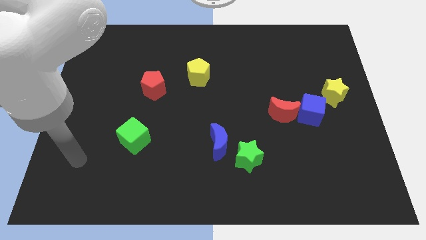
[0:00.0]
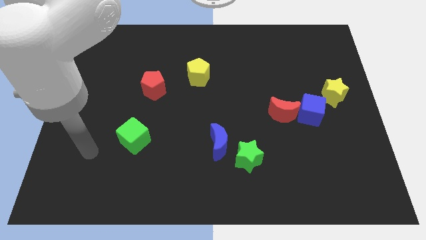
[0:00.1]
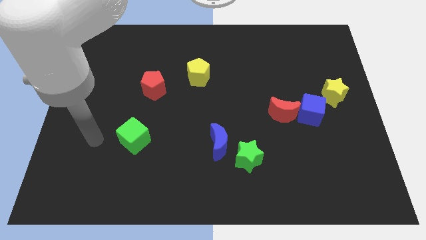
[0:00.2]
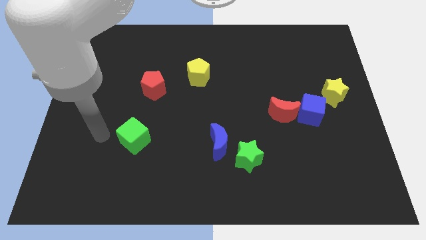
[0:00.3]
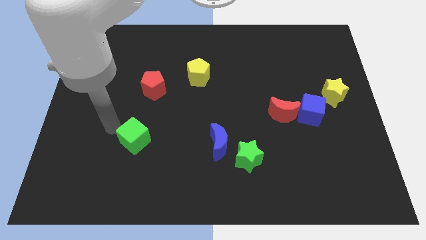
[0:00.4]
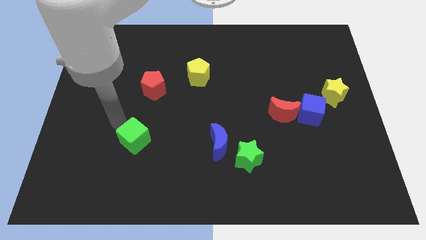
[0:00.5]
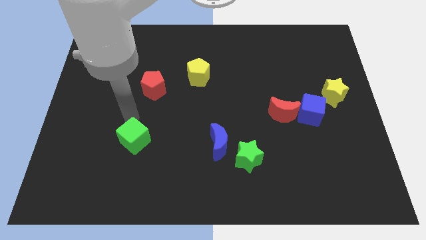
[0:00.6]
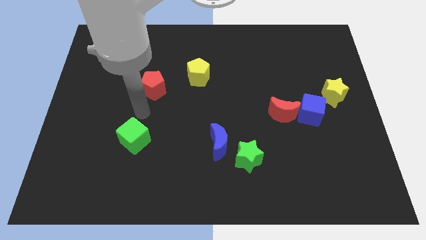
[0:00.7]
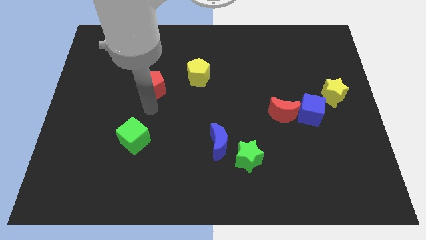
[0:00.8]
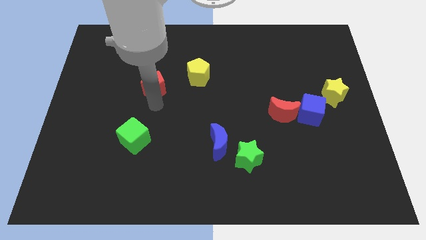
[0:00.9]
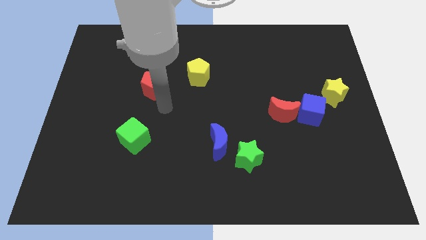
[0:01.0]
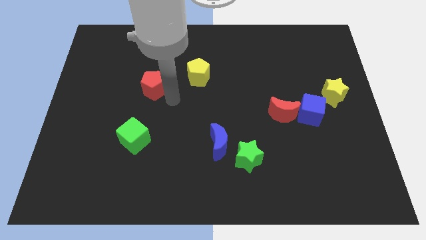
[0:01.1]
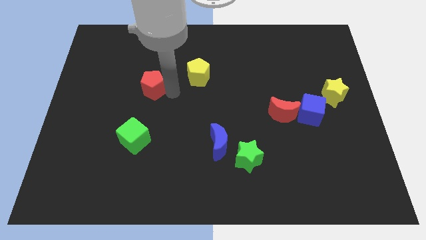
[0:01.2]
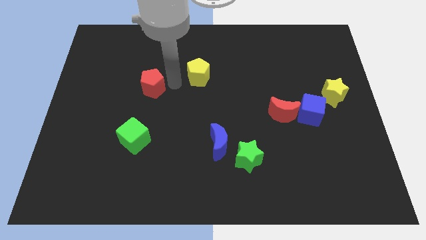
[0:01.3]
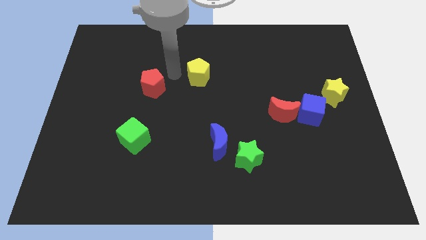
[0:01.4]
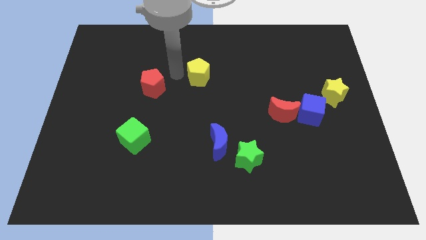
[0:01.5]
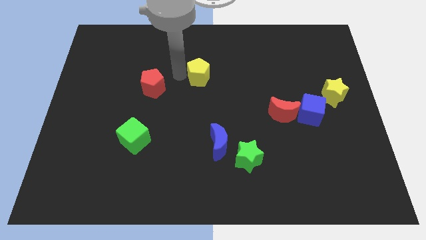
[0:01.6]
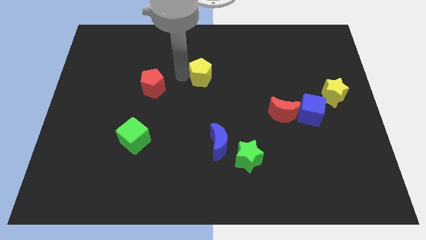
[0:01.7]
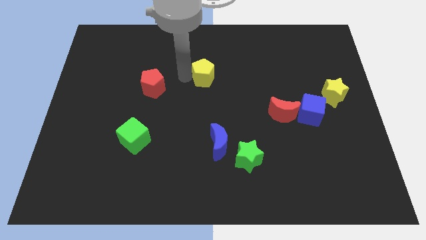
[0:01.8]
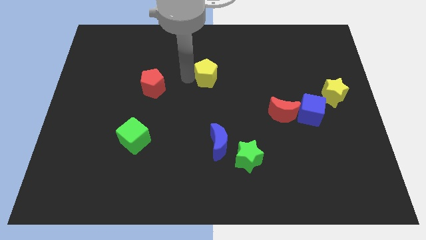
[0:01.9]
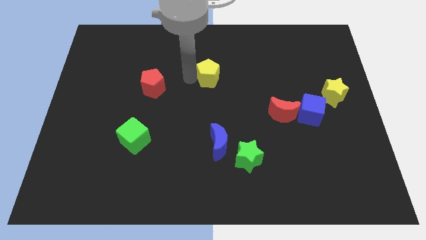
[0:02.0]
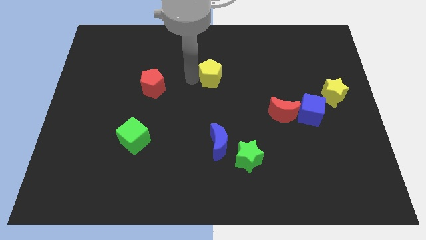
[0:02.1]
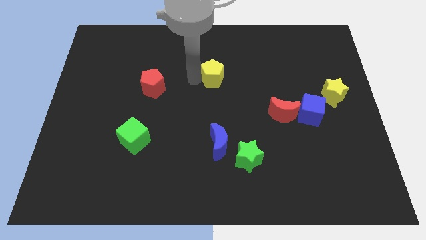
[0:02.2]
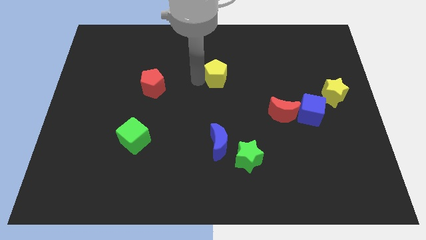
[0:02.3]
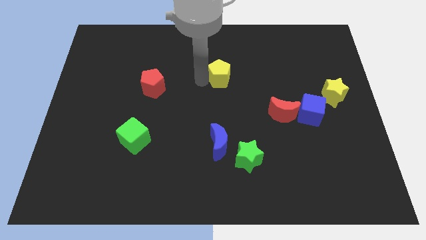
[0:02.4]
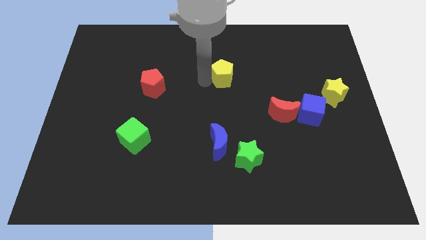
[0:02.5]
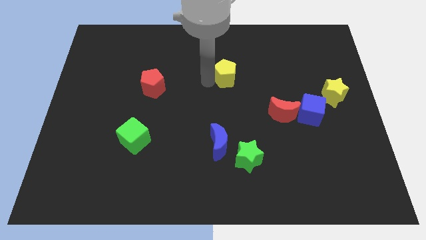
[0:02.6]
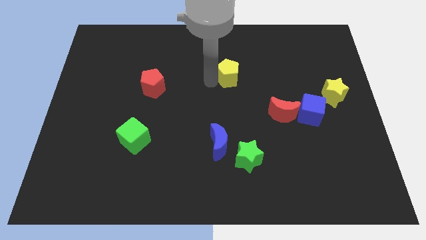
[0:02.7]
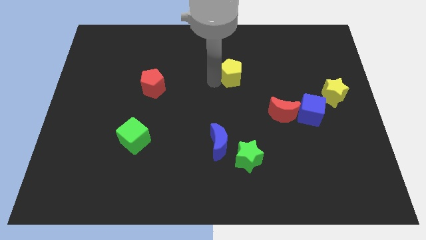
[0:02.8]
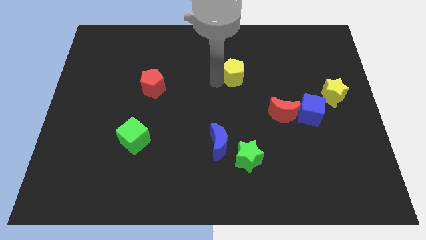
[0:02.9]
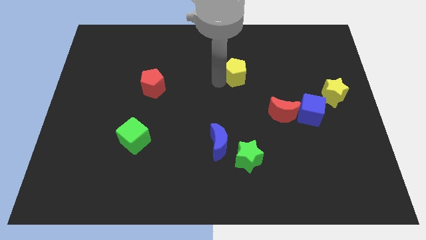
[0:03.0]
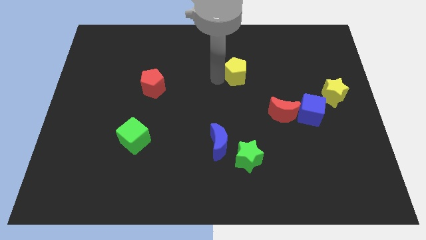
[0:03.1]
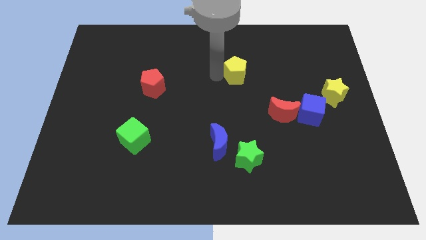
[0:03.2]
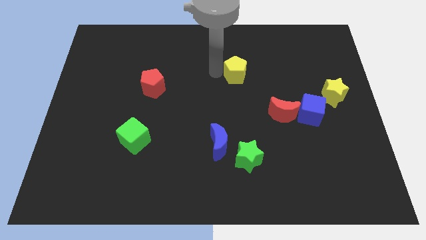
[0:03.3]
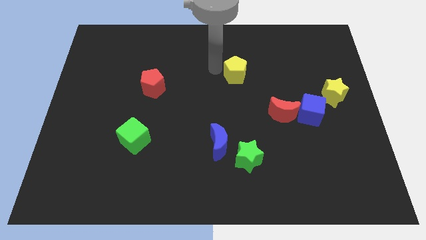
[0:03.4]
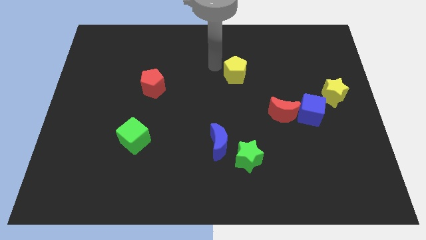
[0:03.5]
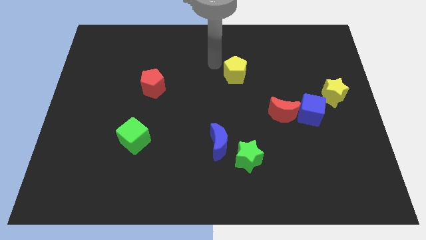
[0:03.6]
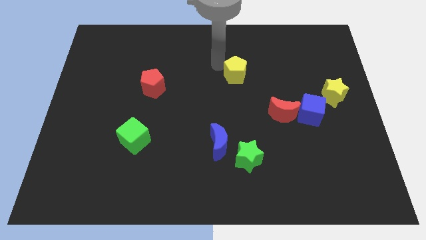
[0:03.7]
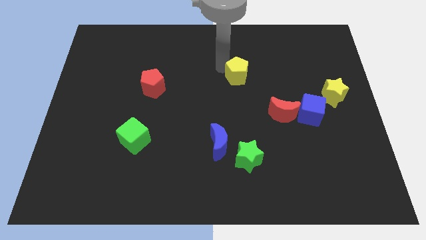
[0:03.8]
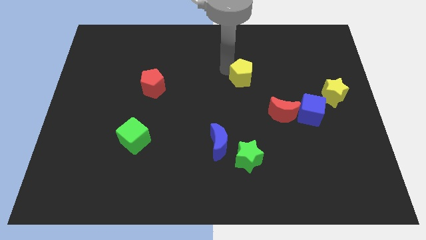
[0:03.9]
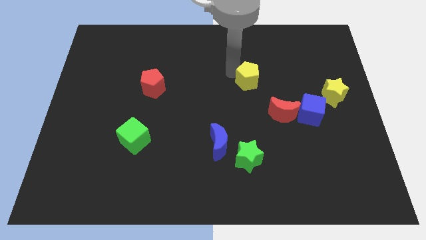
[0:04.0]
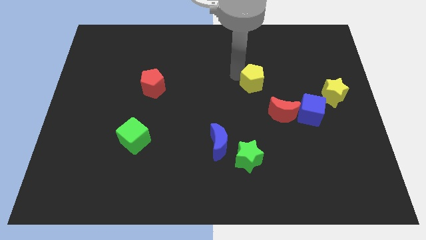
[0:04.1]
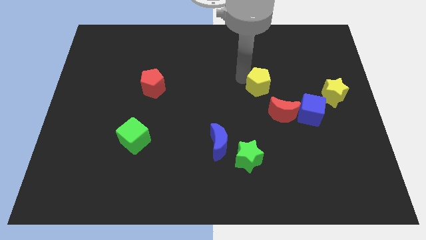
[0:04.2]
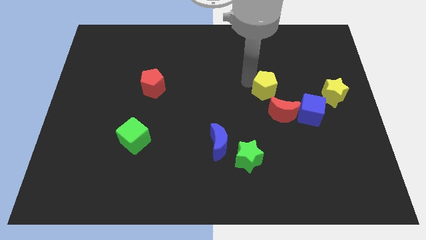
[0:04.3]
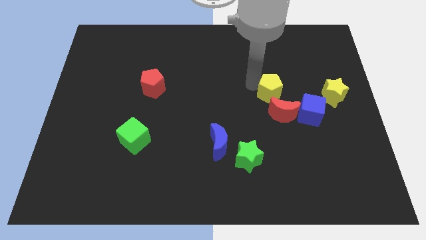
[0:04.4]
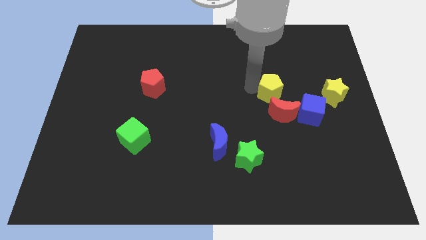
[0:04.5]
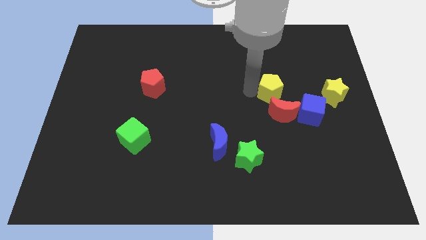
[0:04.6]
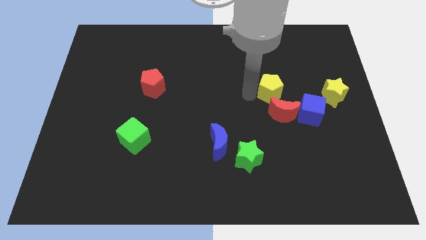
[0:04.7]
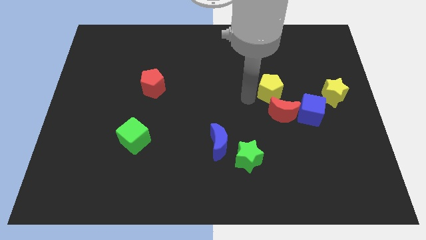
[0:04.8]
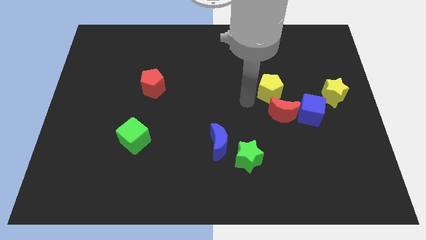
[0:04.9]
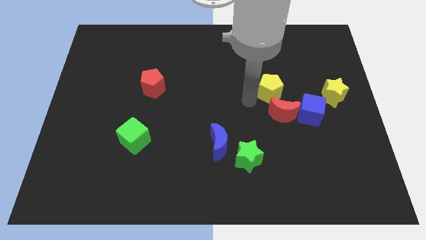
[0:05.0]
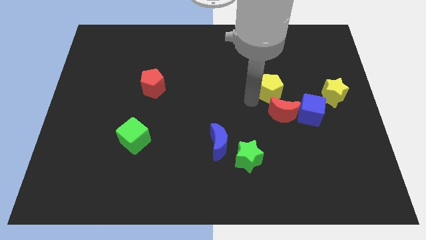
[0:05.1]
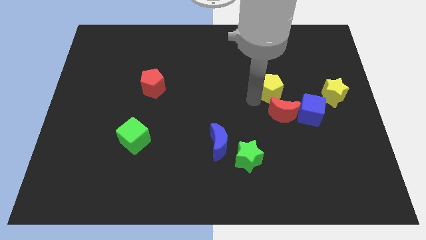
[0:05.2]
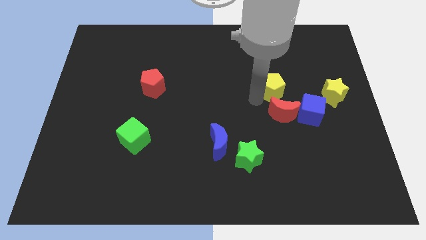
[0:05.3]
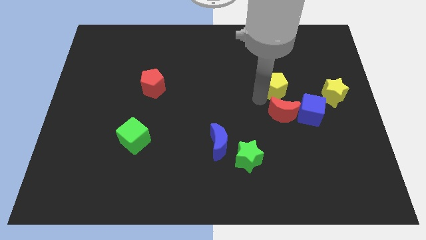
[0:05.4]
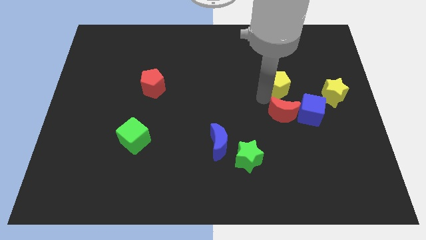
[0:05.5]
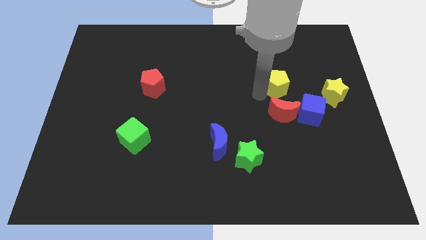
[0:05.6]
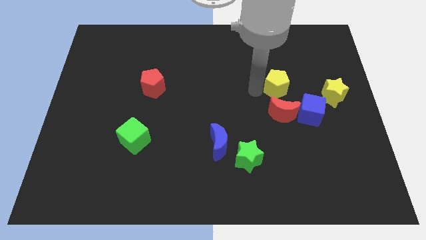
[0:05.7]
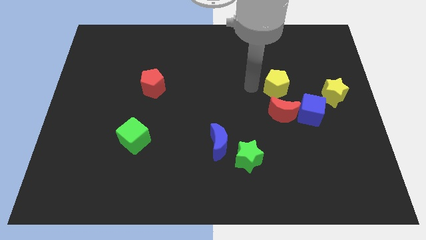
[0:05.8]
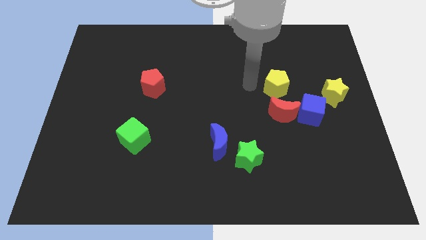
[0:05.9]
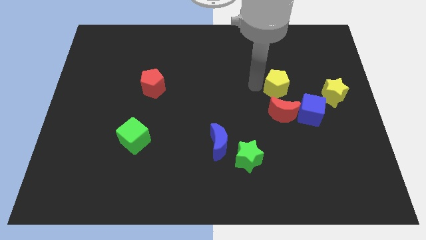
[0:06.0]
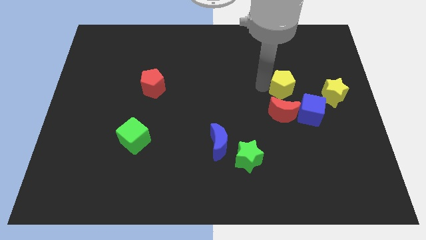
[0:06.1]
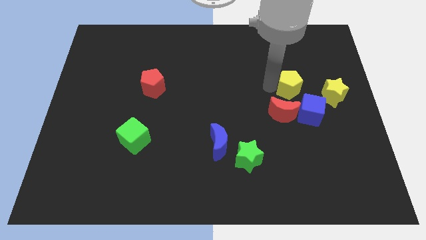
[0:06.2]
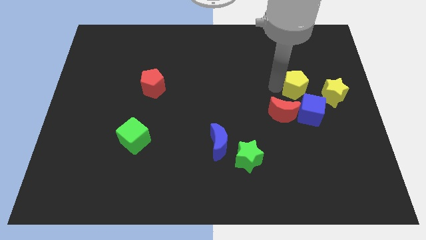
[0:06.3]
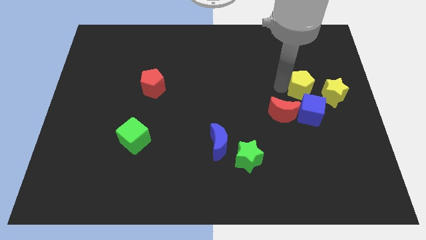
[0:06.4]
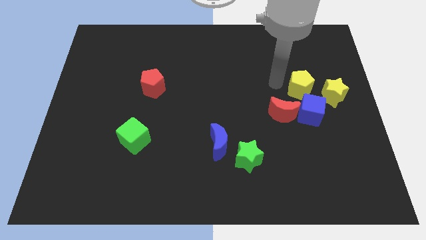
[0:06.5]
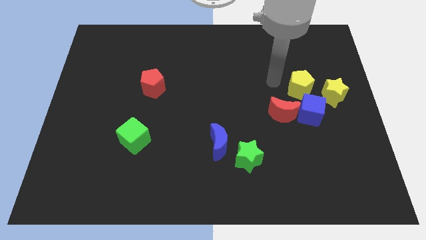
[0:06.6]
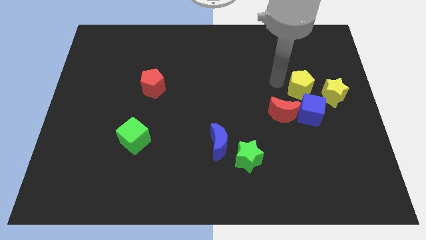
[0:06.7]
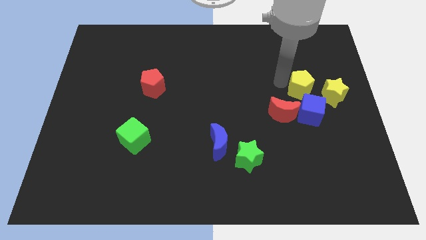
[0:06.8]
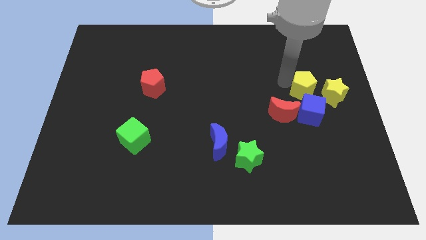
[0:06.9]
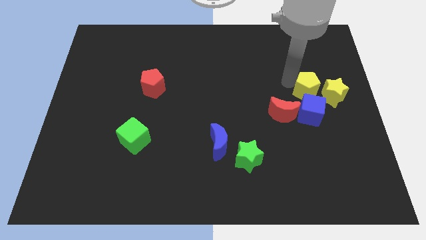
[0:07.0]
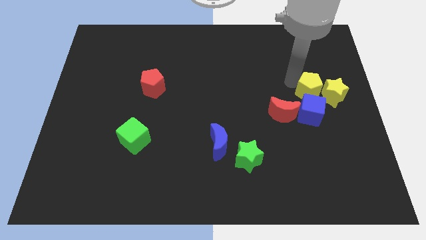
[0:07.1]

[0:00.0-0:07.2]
slide the yellow pentagon to the yellow star

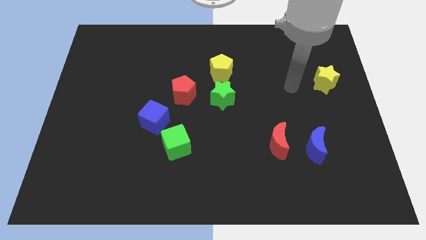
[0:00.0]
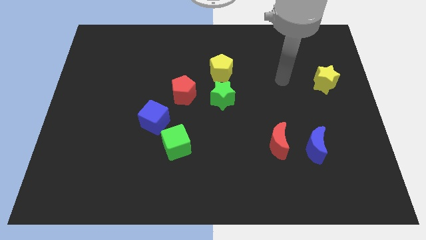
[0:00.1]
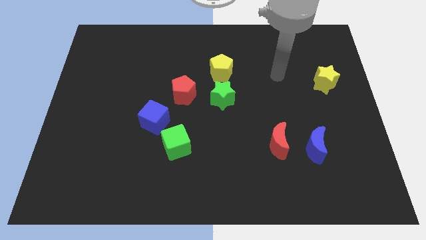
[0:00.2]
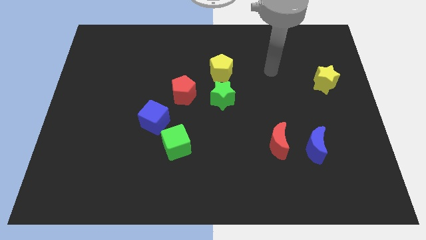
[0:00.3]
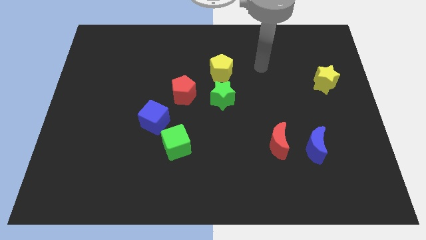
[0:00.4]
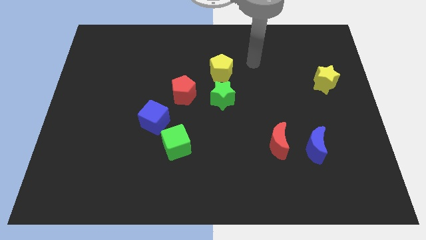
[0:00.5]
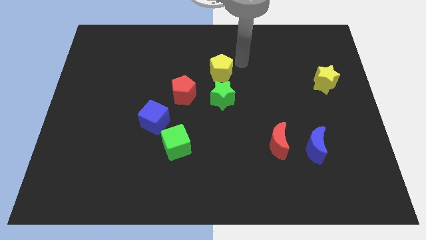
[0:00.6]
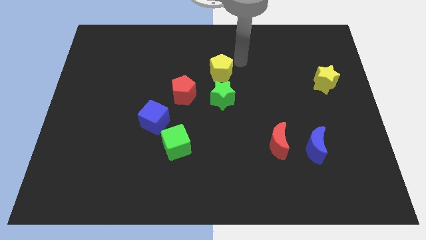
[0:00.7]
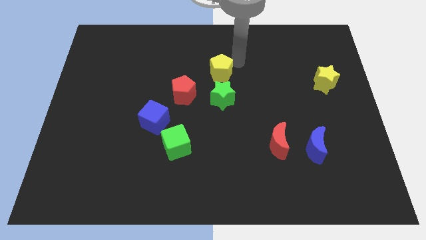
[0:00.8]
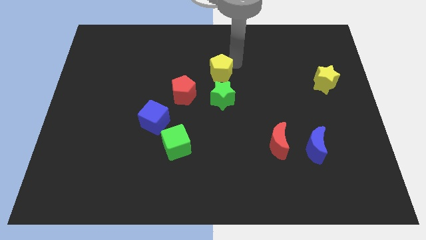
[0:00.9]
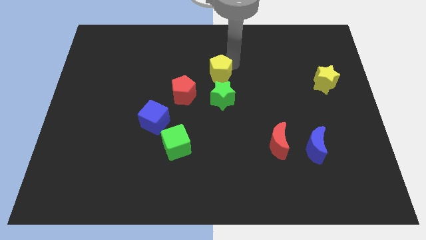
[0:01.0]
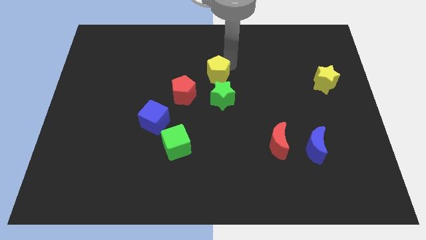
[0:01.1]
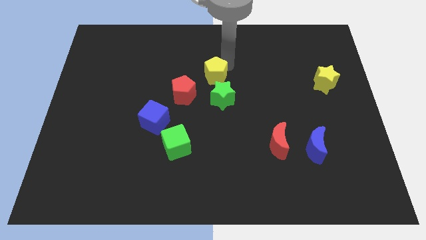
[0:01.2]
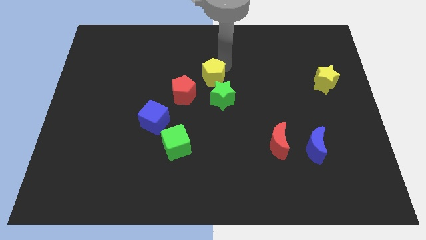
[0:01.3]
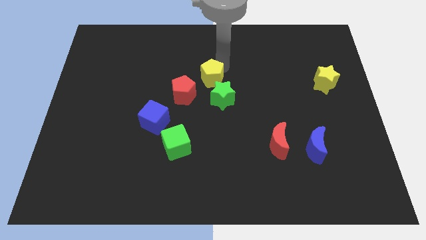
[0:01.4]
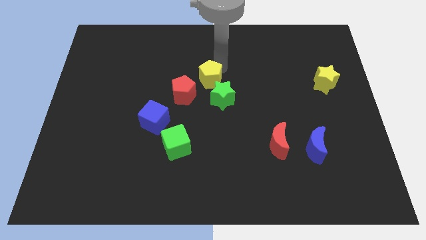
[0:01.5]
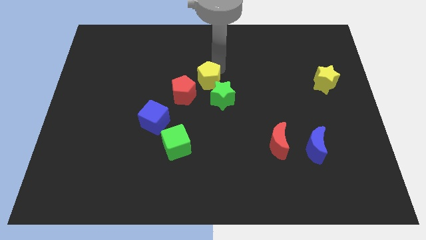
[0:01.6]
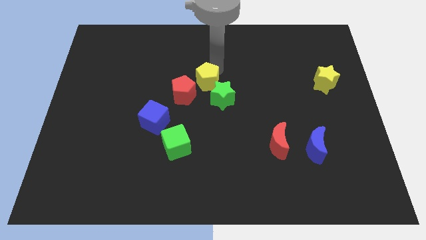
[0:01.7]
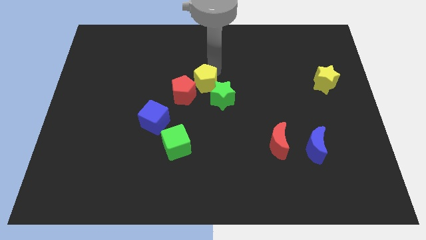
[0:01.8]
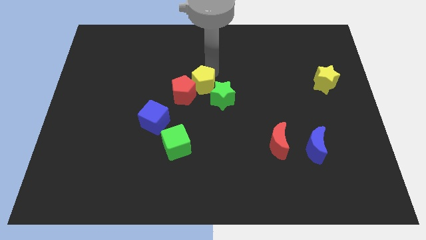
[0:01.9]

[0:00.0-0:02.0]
slide the yellow pentagon next to the red pentagon
